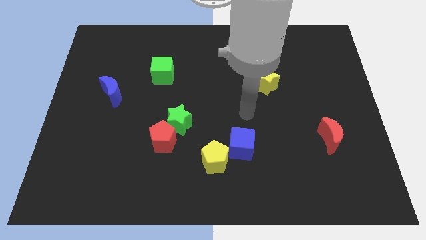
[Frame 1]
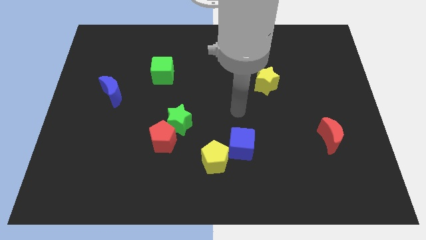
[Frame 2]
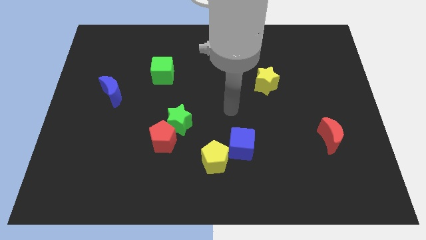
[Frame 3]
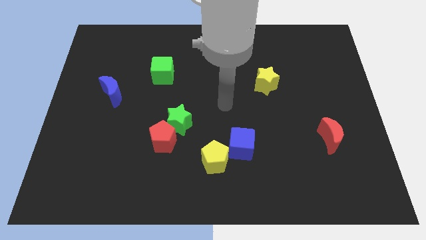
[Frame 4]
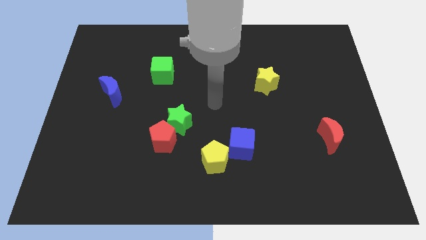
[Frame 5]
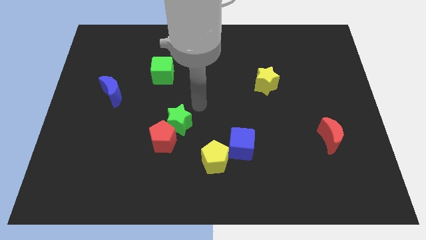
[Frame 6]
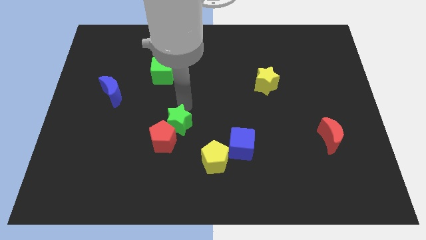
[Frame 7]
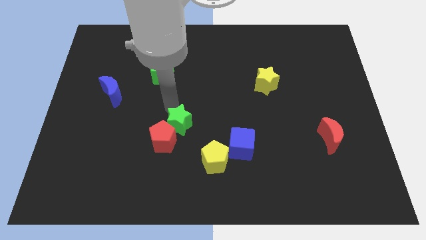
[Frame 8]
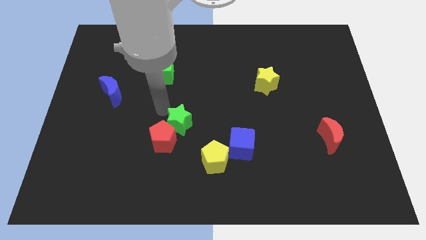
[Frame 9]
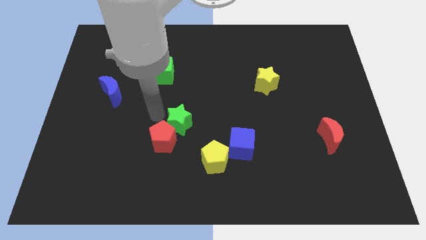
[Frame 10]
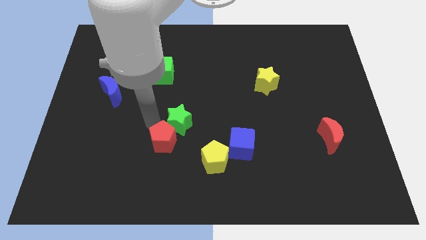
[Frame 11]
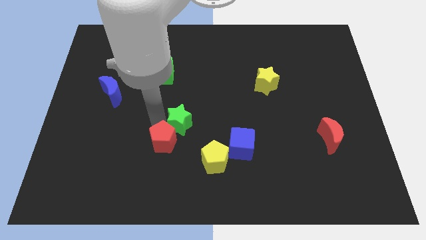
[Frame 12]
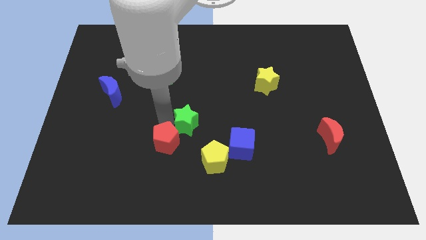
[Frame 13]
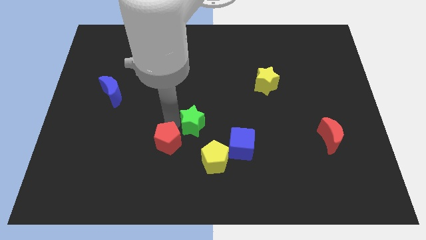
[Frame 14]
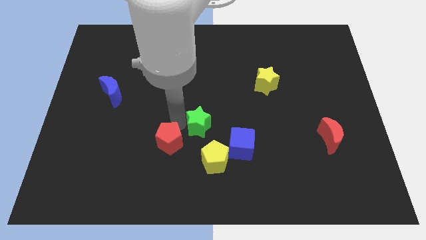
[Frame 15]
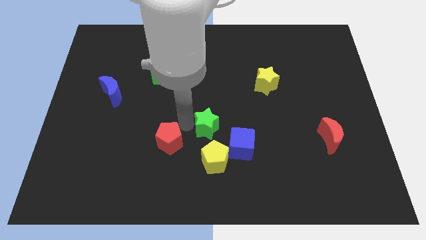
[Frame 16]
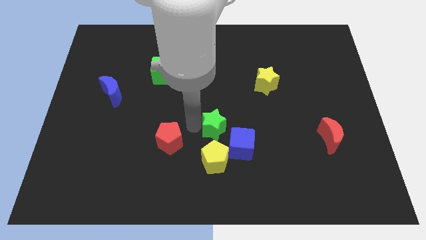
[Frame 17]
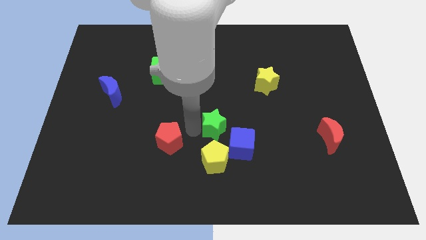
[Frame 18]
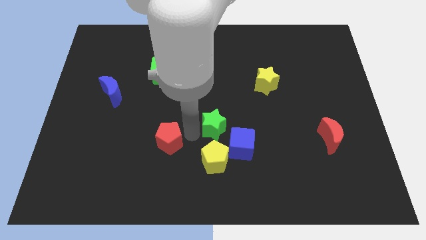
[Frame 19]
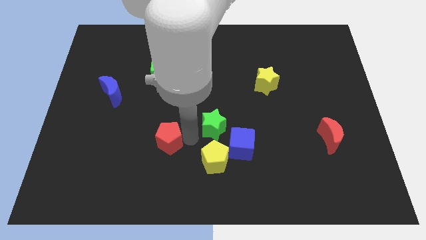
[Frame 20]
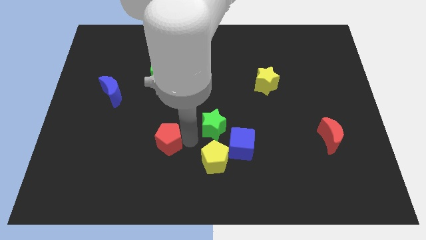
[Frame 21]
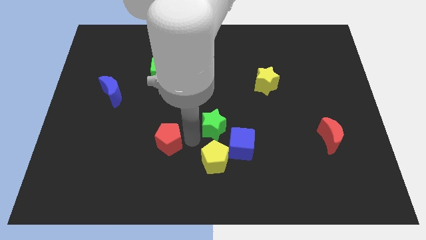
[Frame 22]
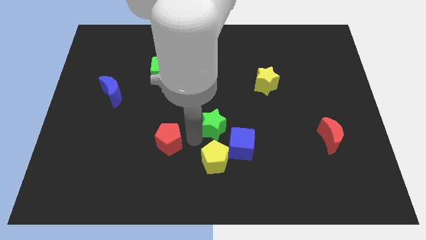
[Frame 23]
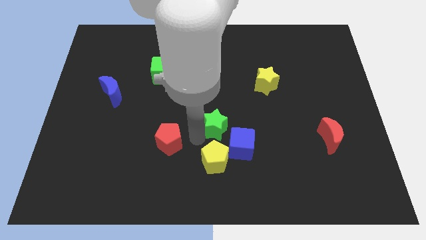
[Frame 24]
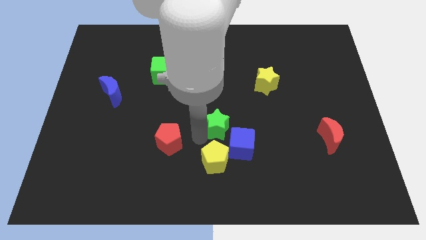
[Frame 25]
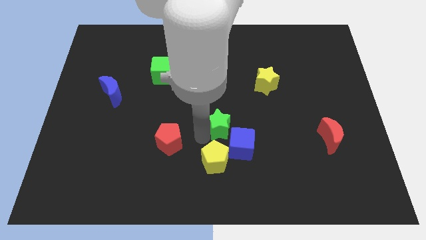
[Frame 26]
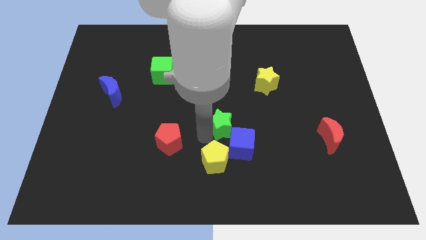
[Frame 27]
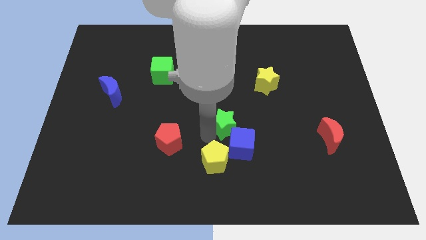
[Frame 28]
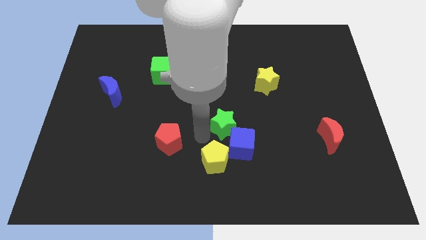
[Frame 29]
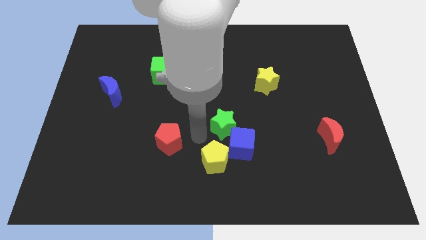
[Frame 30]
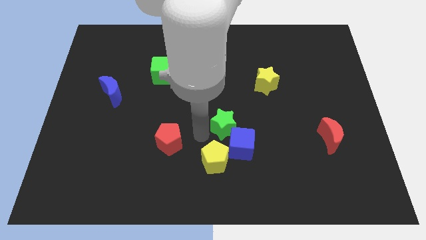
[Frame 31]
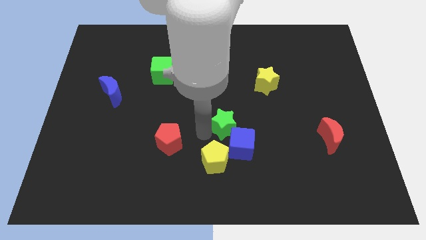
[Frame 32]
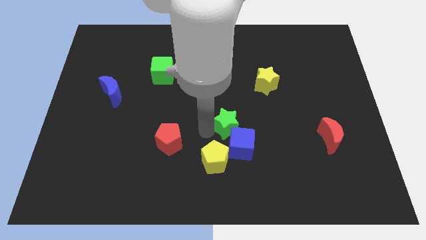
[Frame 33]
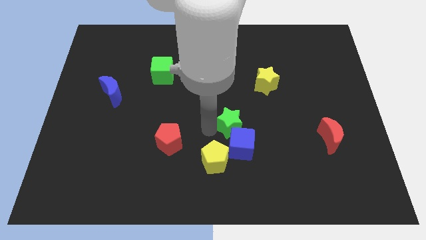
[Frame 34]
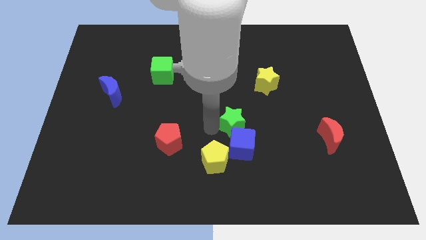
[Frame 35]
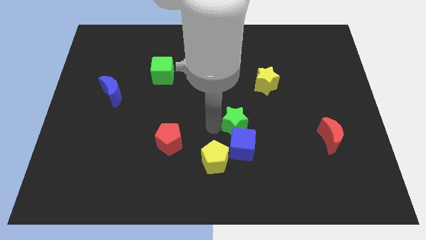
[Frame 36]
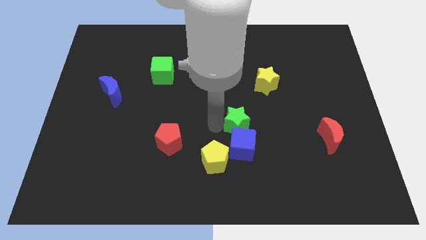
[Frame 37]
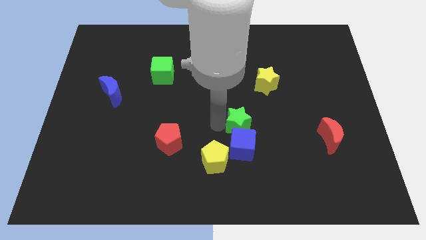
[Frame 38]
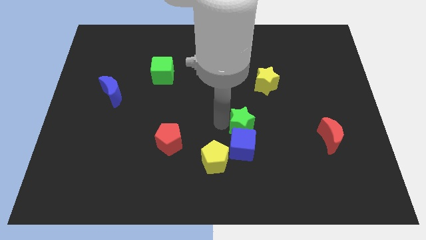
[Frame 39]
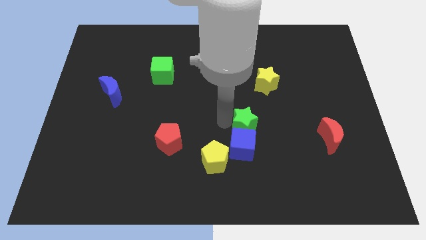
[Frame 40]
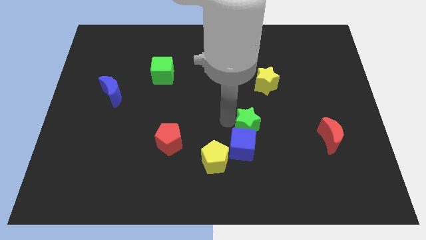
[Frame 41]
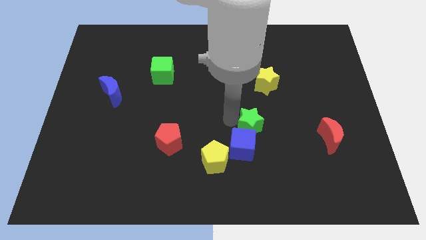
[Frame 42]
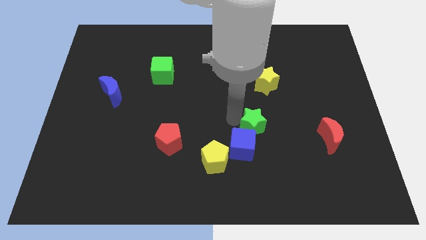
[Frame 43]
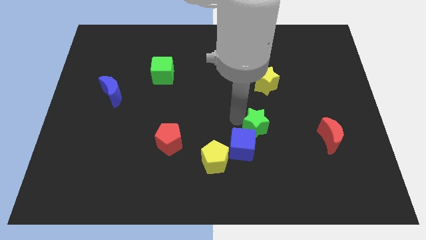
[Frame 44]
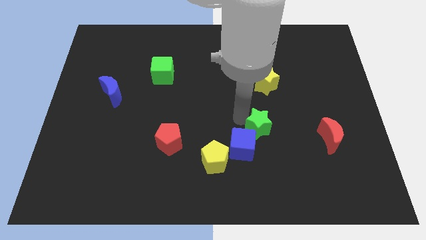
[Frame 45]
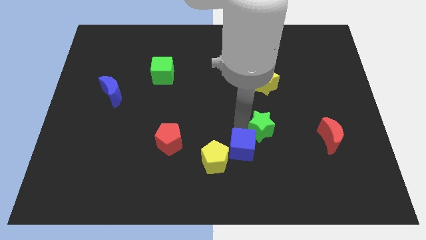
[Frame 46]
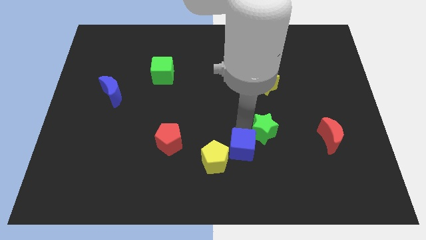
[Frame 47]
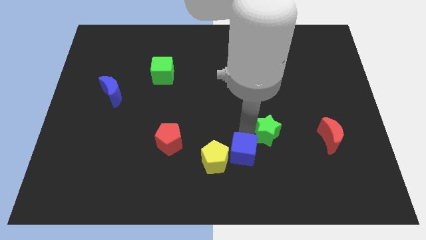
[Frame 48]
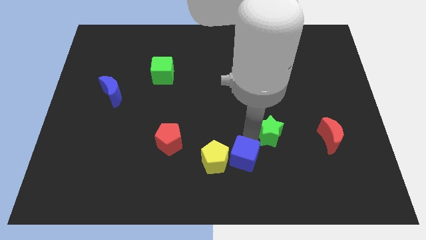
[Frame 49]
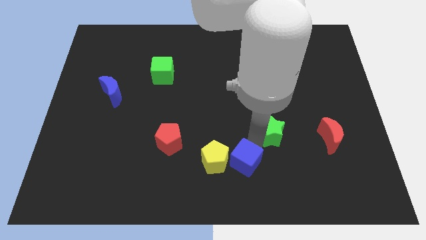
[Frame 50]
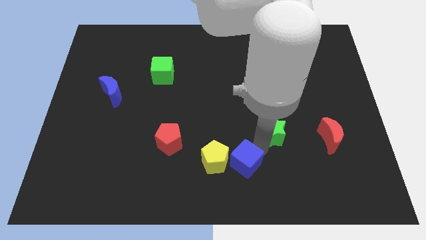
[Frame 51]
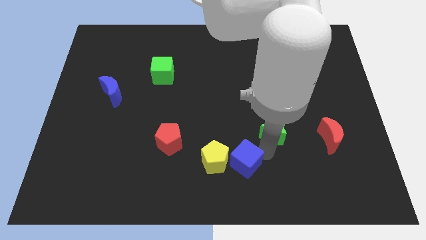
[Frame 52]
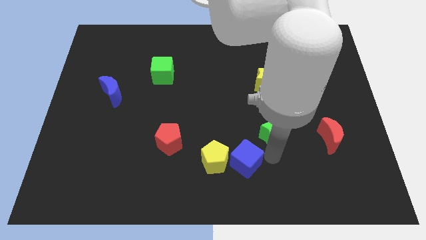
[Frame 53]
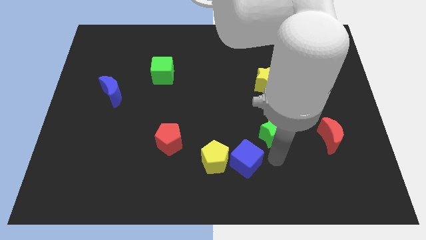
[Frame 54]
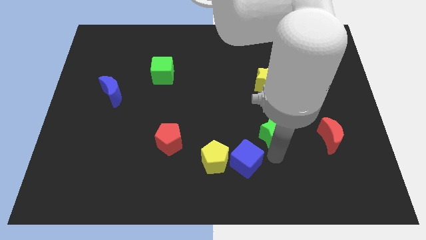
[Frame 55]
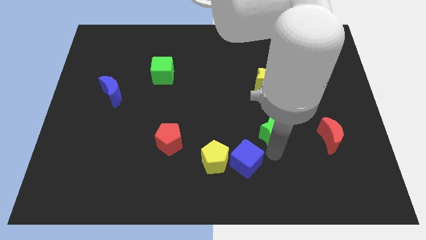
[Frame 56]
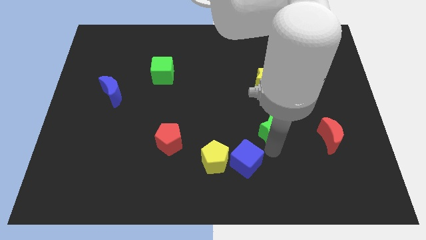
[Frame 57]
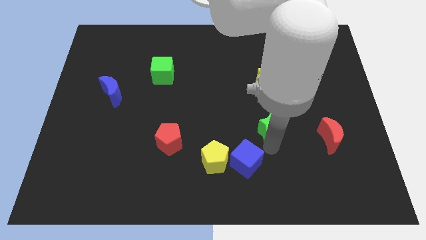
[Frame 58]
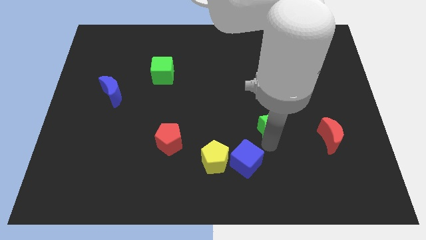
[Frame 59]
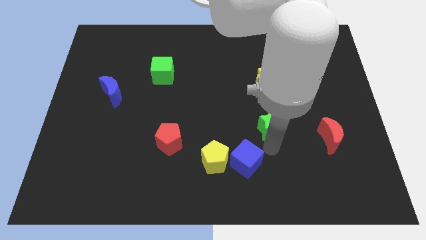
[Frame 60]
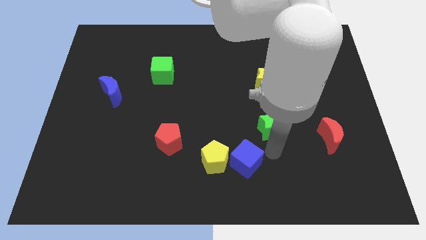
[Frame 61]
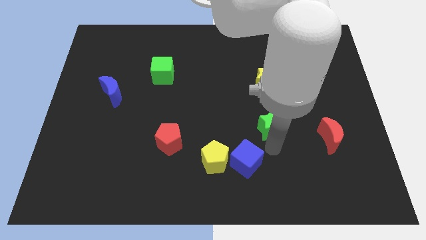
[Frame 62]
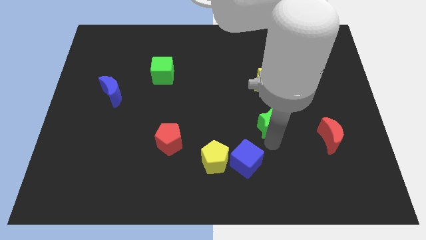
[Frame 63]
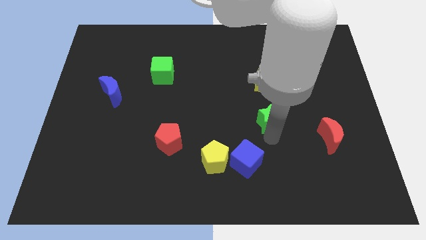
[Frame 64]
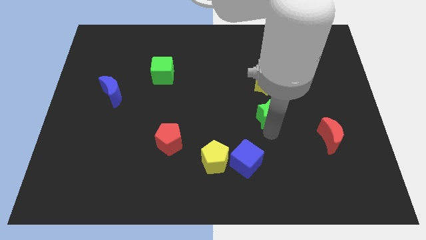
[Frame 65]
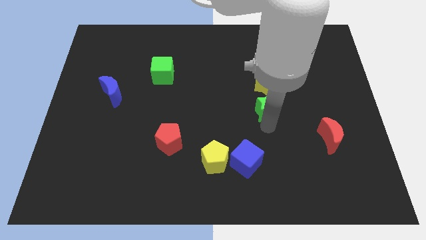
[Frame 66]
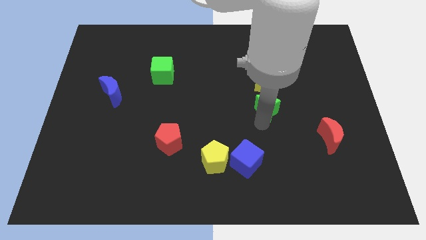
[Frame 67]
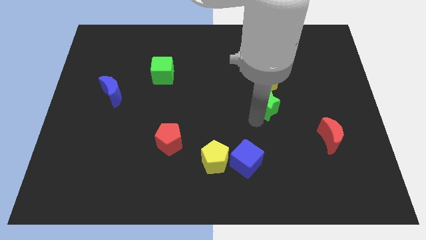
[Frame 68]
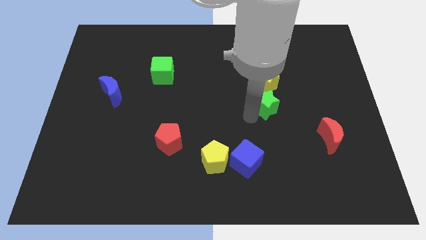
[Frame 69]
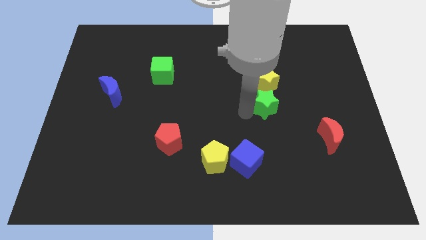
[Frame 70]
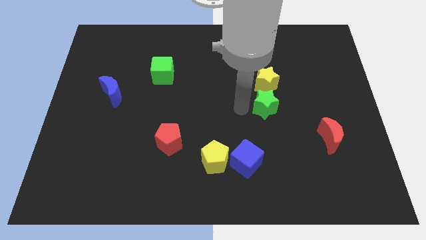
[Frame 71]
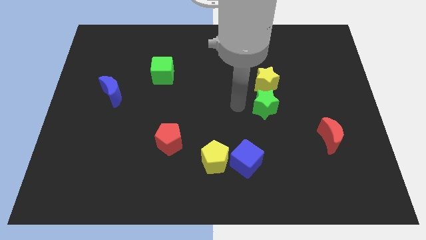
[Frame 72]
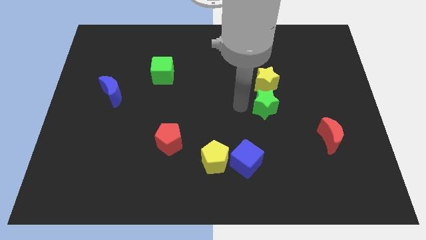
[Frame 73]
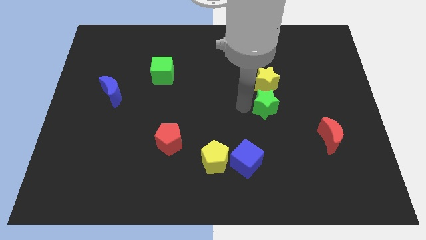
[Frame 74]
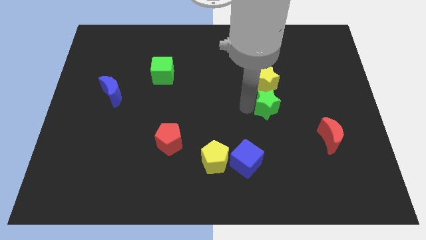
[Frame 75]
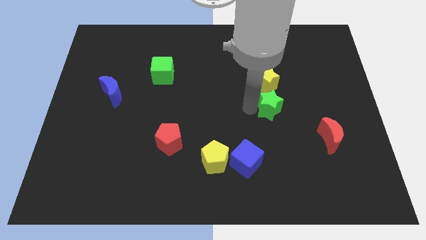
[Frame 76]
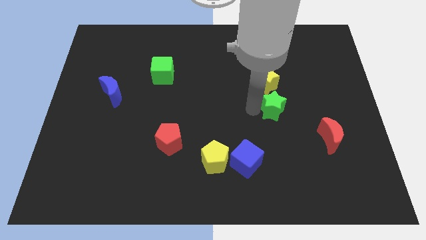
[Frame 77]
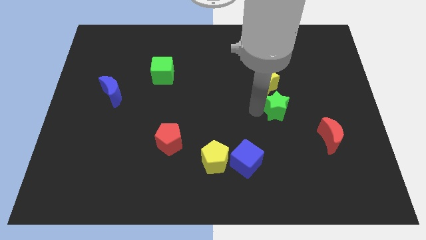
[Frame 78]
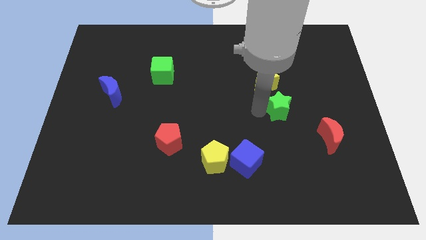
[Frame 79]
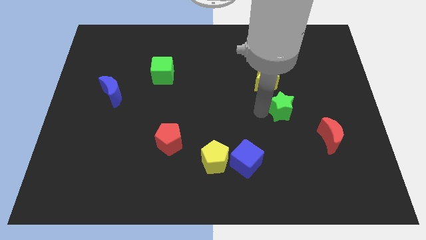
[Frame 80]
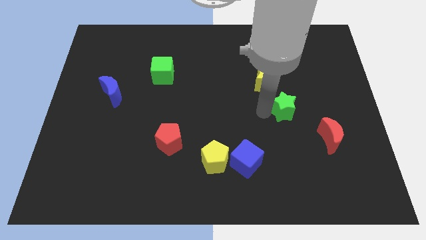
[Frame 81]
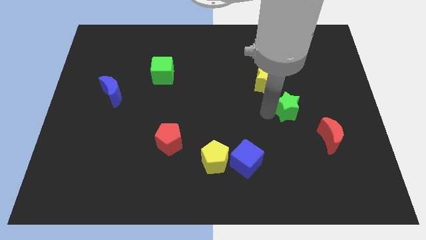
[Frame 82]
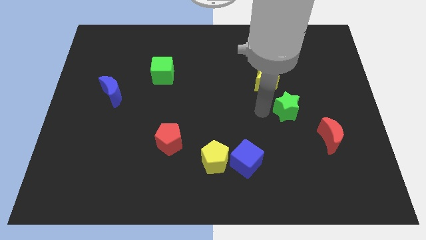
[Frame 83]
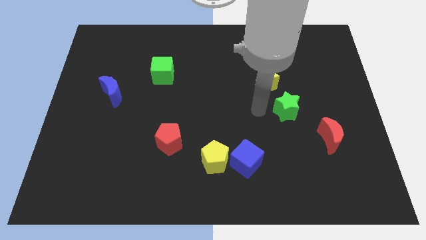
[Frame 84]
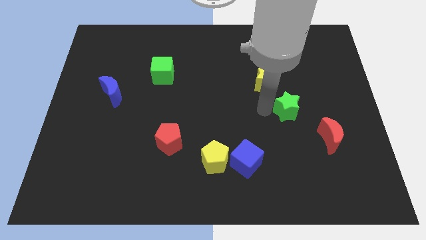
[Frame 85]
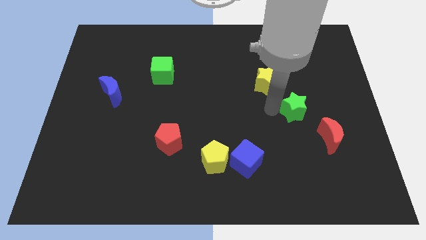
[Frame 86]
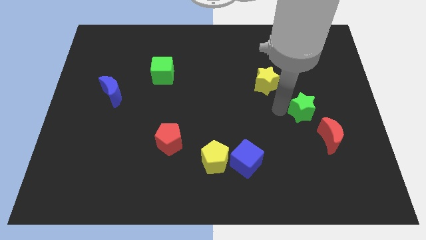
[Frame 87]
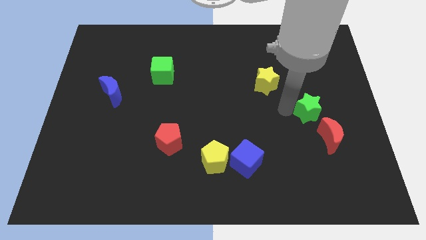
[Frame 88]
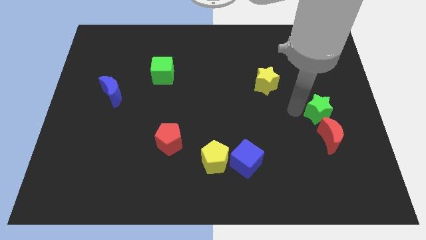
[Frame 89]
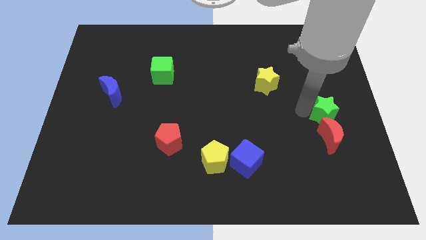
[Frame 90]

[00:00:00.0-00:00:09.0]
move the green star to the right side
